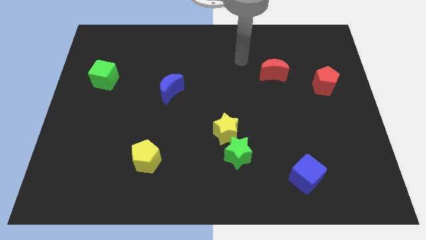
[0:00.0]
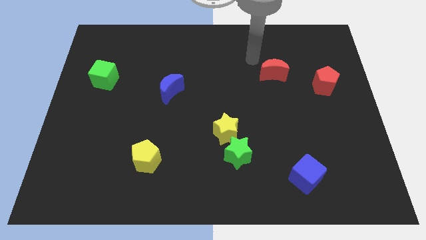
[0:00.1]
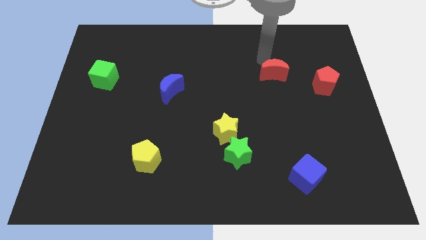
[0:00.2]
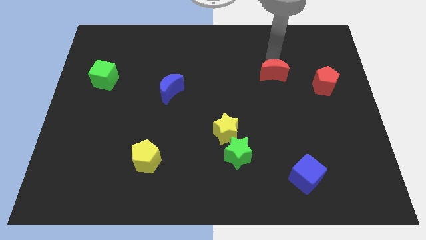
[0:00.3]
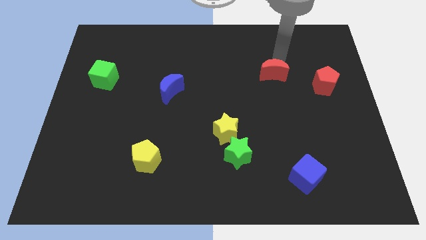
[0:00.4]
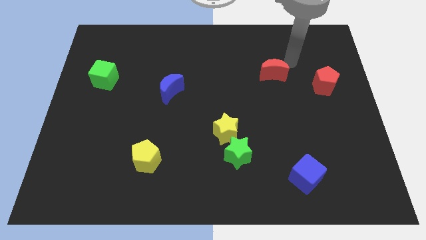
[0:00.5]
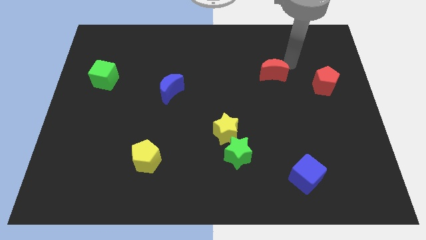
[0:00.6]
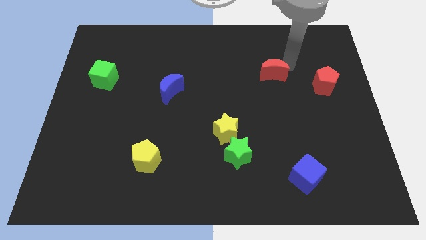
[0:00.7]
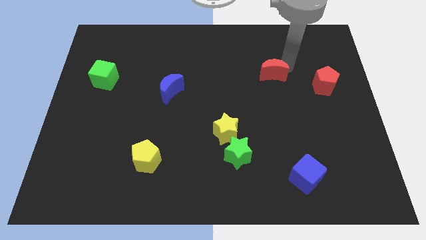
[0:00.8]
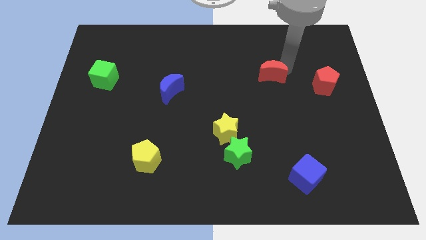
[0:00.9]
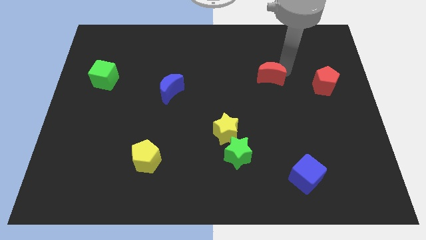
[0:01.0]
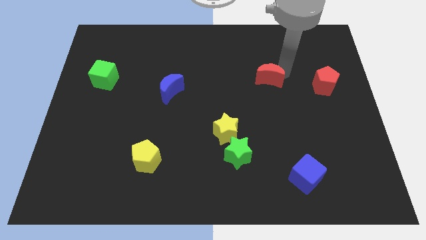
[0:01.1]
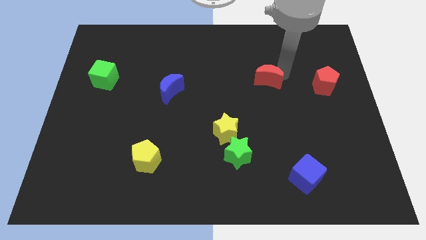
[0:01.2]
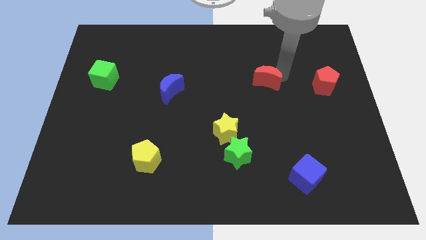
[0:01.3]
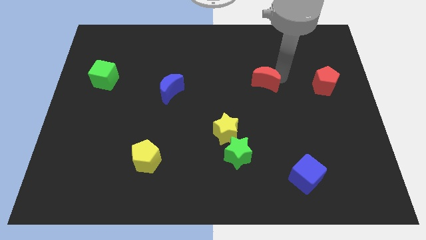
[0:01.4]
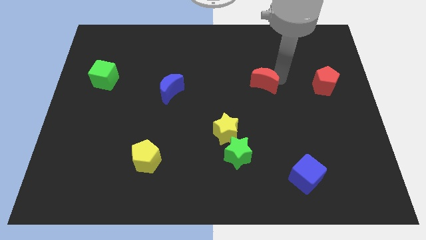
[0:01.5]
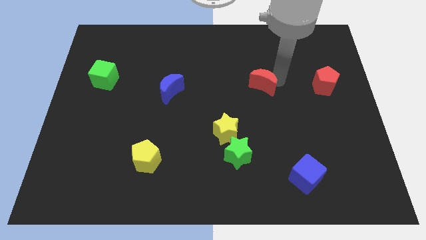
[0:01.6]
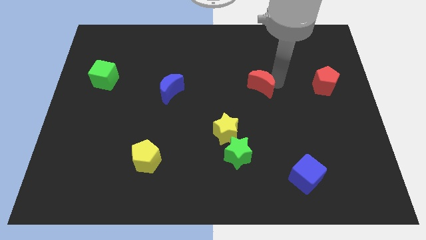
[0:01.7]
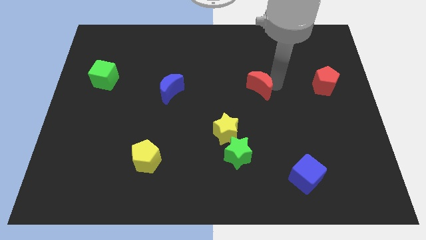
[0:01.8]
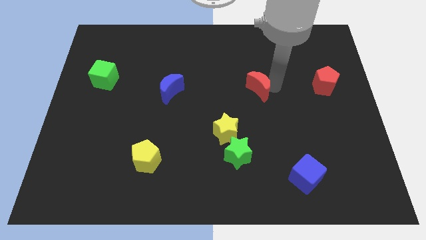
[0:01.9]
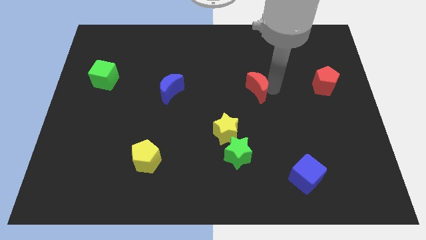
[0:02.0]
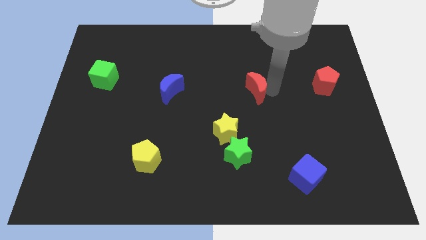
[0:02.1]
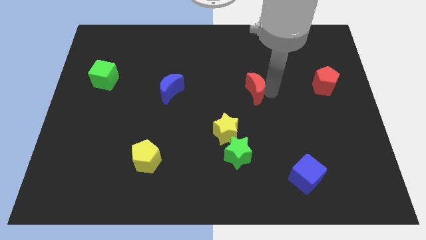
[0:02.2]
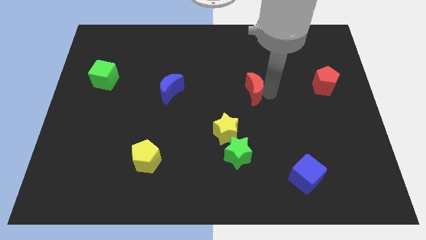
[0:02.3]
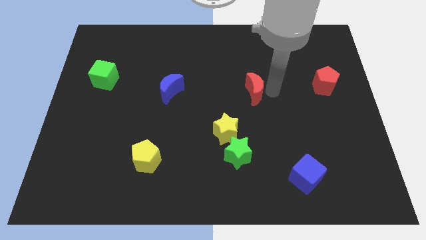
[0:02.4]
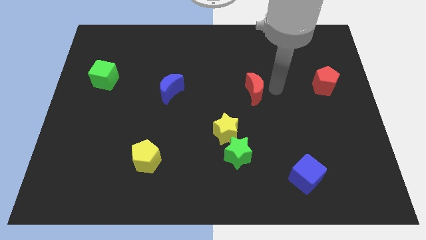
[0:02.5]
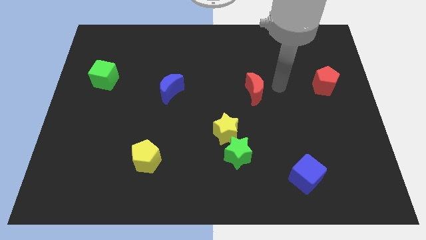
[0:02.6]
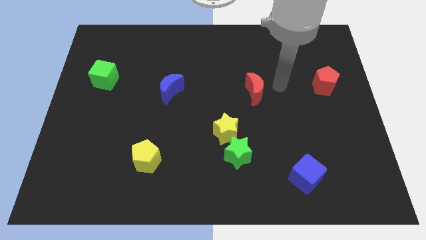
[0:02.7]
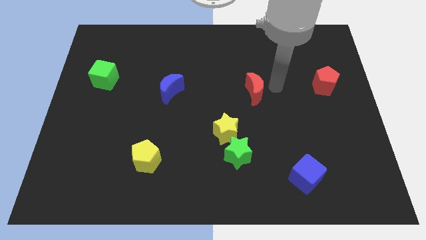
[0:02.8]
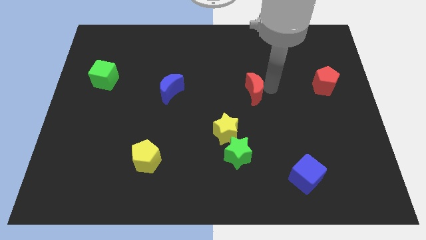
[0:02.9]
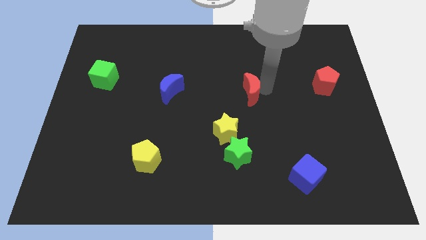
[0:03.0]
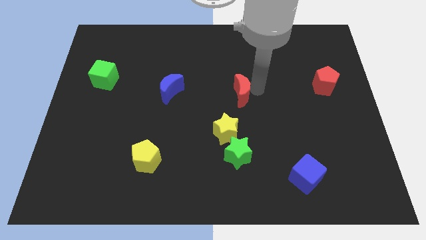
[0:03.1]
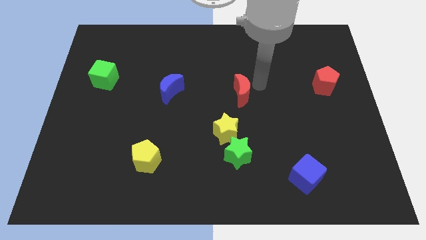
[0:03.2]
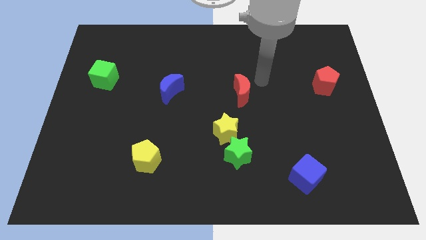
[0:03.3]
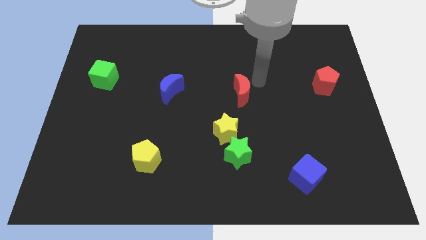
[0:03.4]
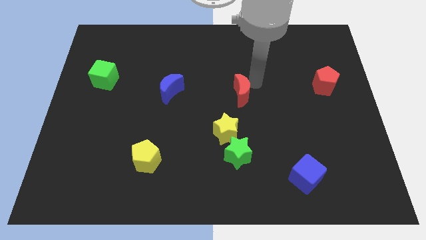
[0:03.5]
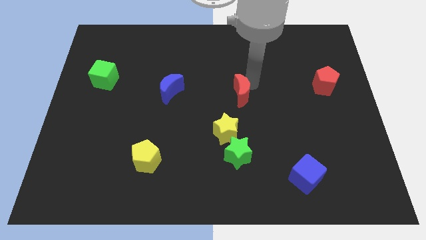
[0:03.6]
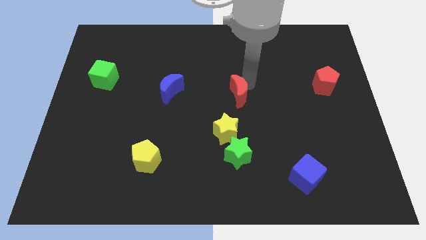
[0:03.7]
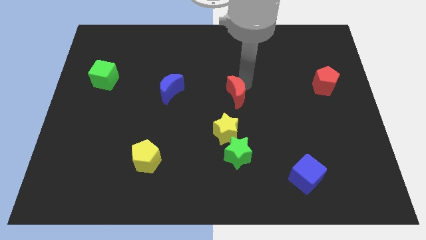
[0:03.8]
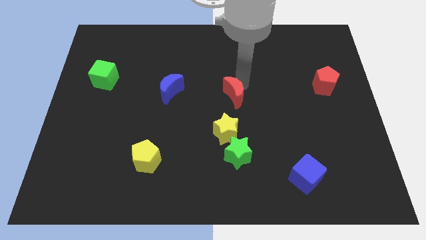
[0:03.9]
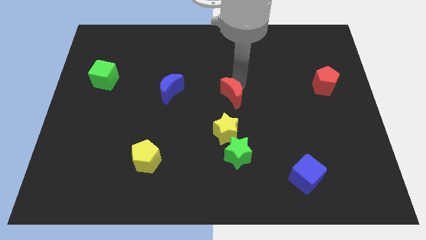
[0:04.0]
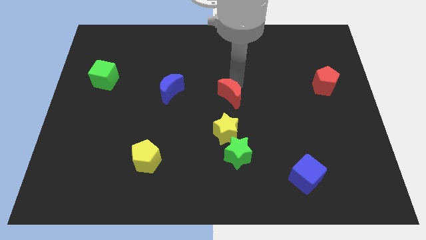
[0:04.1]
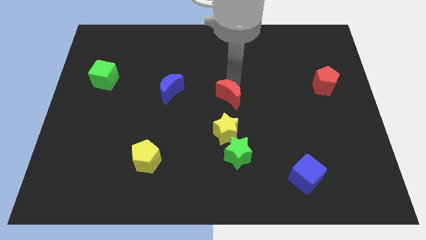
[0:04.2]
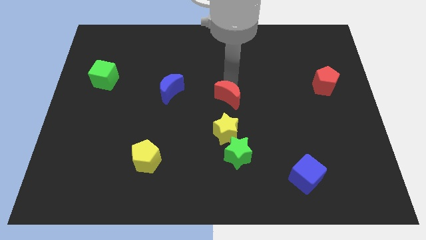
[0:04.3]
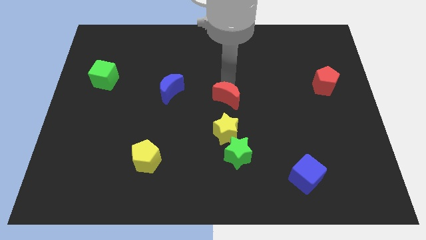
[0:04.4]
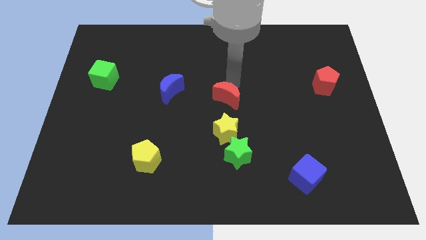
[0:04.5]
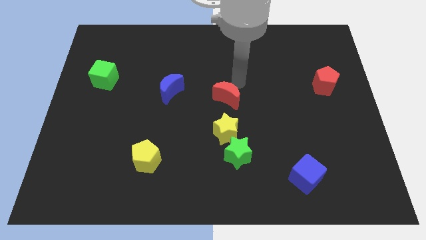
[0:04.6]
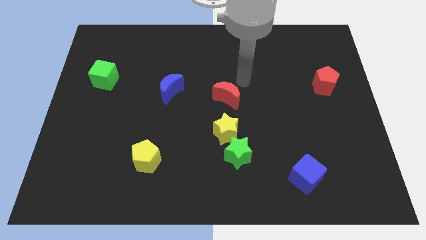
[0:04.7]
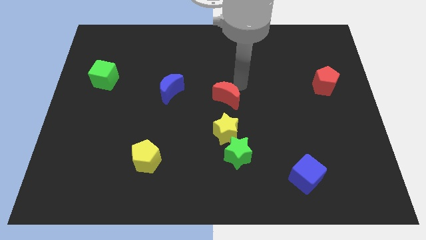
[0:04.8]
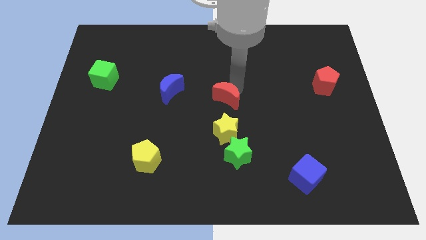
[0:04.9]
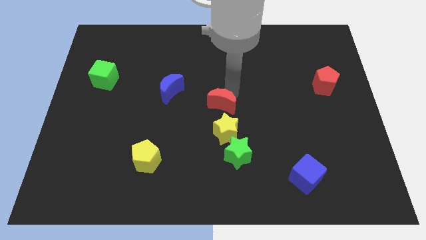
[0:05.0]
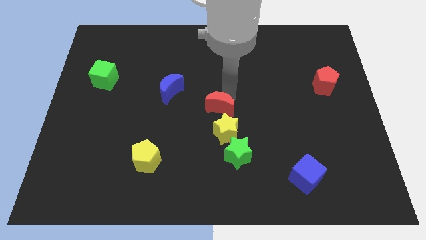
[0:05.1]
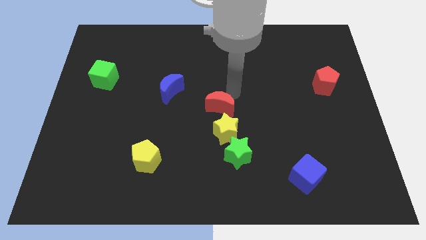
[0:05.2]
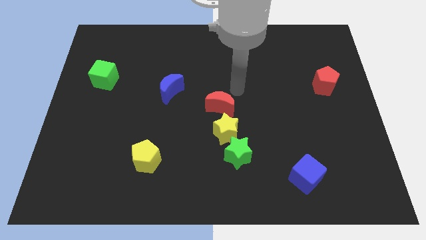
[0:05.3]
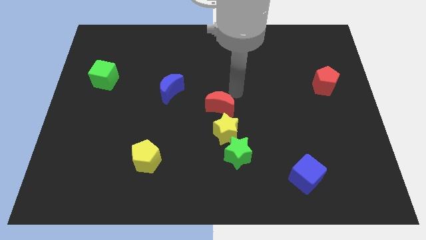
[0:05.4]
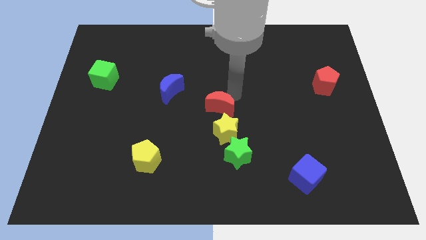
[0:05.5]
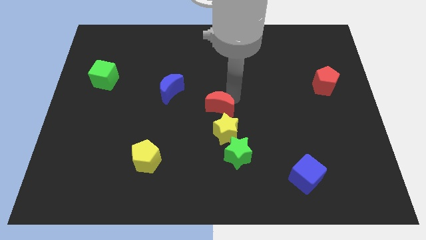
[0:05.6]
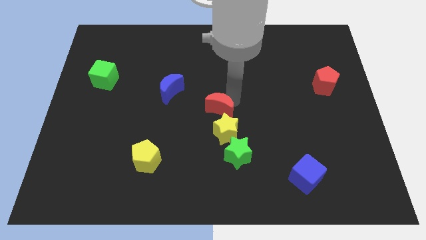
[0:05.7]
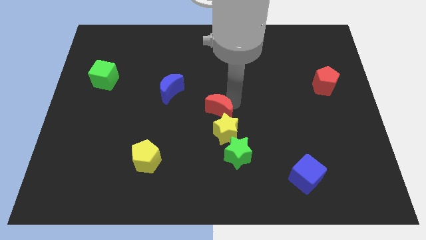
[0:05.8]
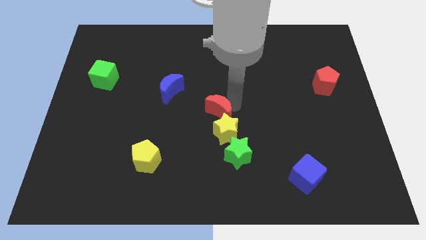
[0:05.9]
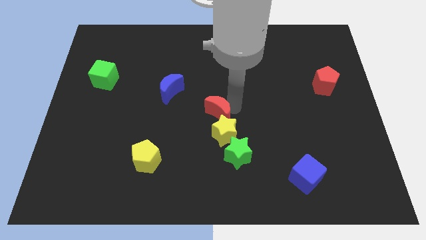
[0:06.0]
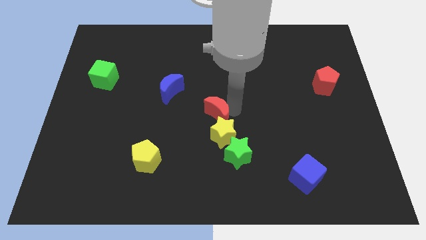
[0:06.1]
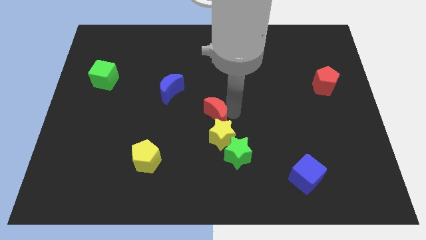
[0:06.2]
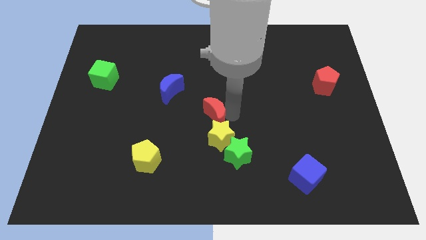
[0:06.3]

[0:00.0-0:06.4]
move the red moon diagonally downwards and to the left

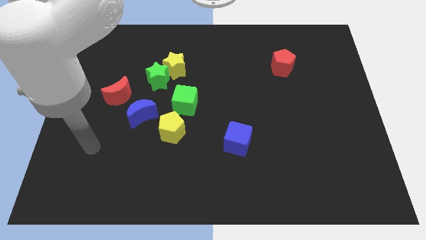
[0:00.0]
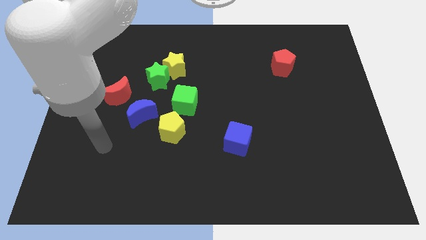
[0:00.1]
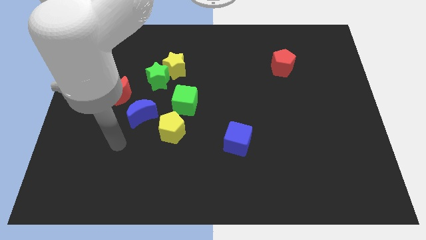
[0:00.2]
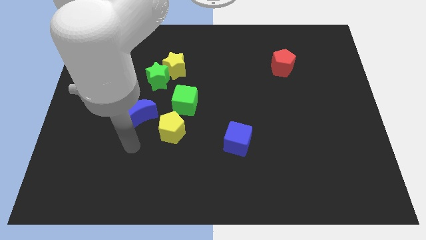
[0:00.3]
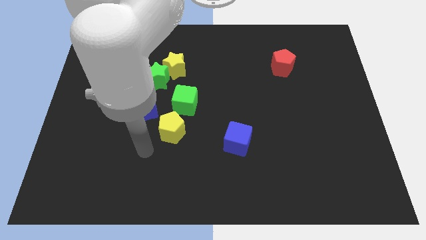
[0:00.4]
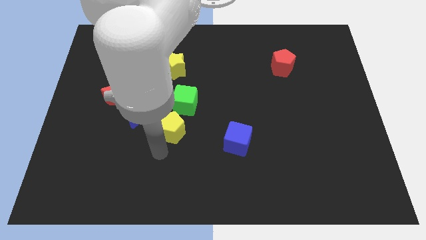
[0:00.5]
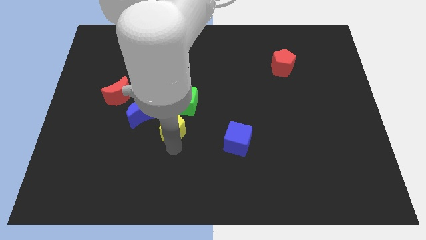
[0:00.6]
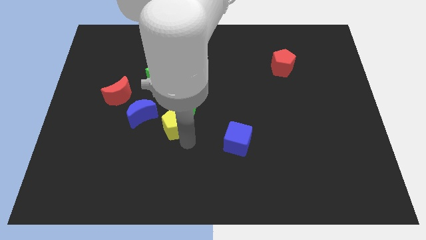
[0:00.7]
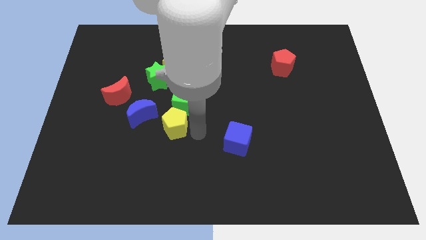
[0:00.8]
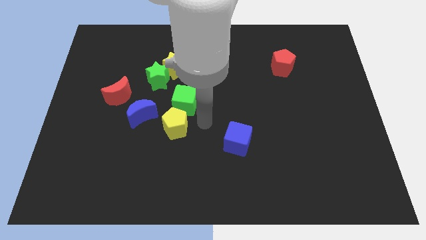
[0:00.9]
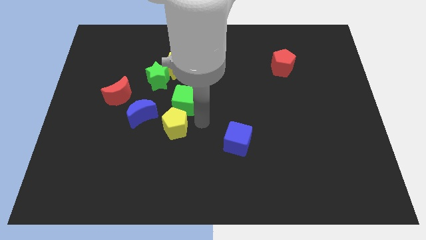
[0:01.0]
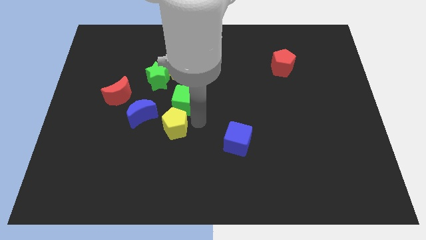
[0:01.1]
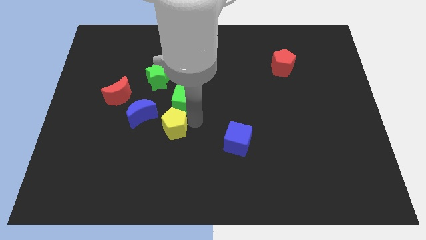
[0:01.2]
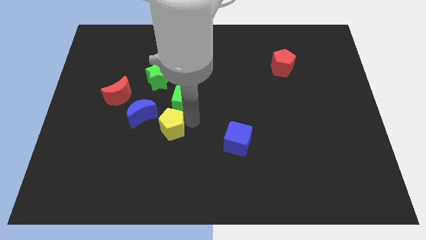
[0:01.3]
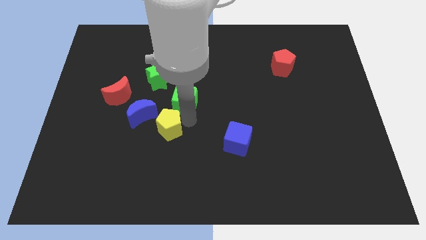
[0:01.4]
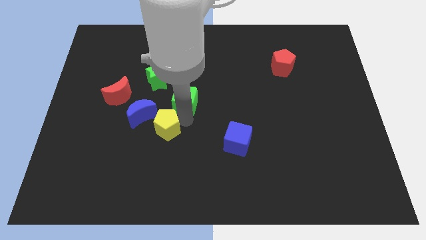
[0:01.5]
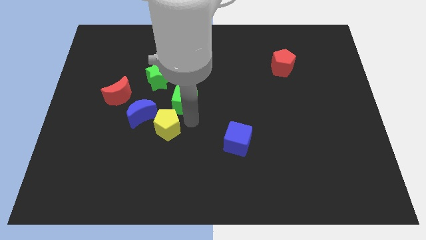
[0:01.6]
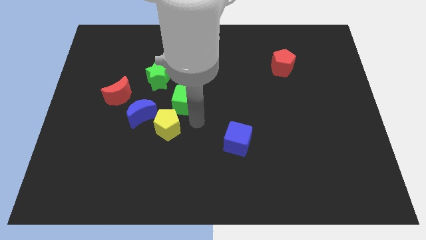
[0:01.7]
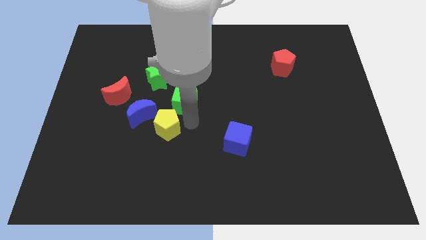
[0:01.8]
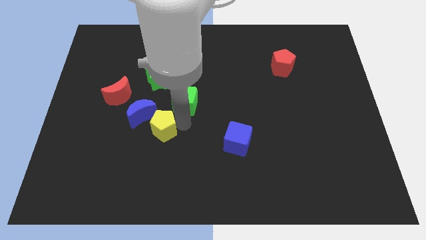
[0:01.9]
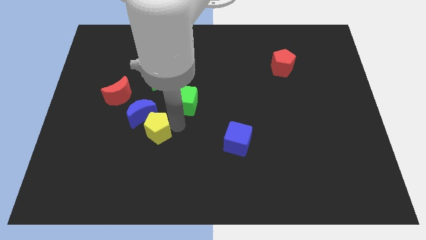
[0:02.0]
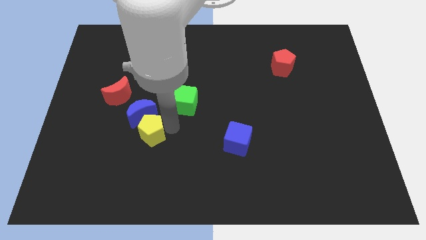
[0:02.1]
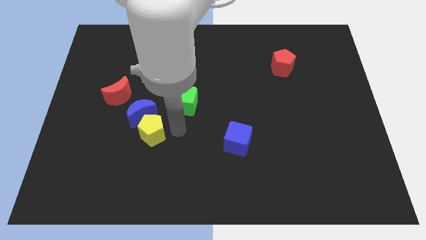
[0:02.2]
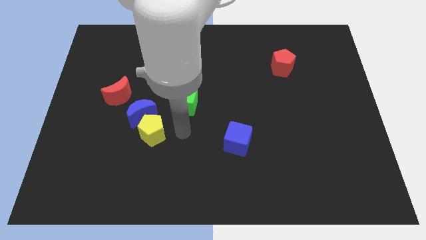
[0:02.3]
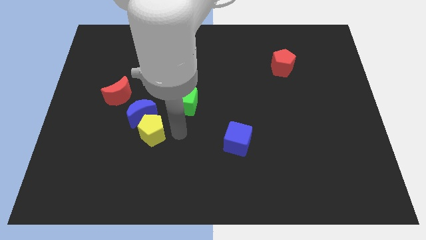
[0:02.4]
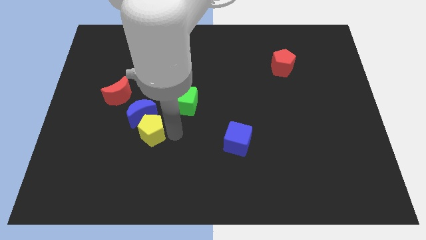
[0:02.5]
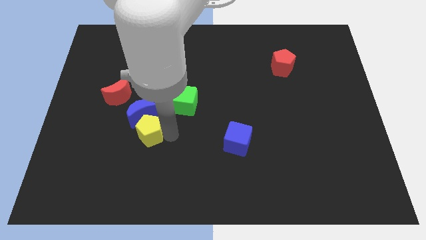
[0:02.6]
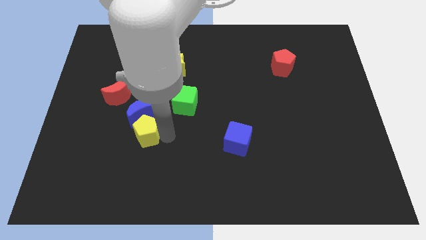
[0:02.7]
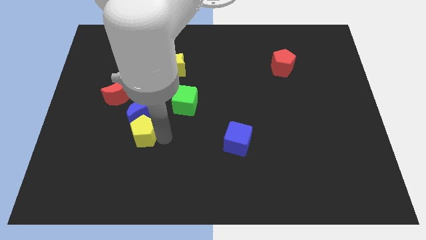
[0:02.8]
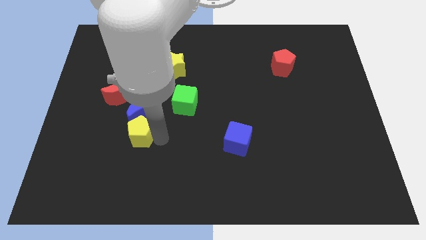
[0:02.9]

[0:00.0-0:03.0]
move the yellow pentagon to the left a little
